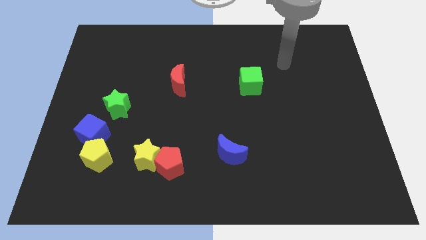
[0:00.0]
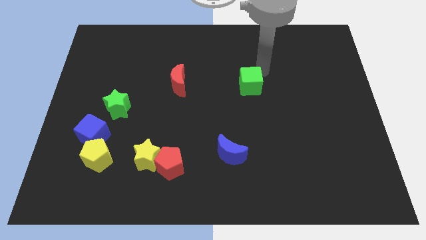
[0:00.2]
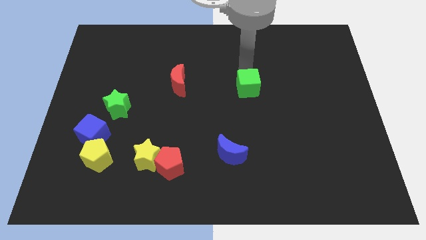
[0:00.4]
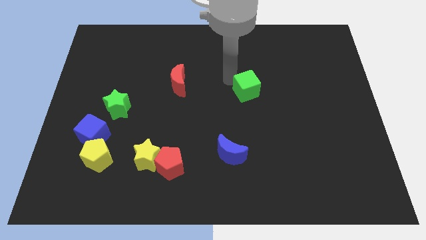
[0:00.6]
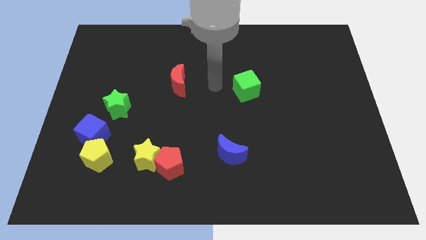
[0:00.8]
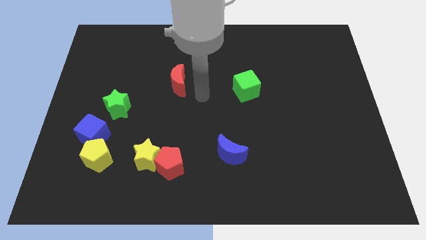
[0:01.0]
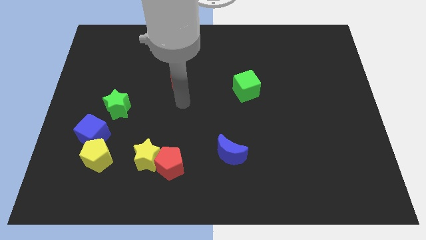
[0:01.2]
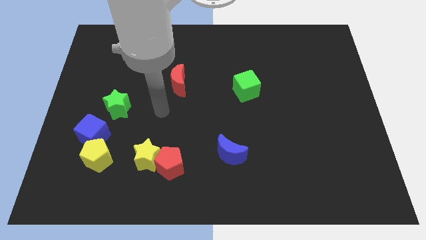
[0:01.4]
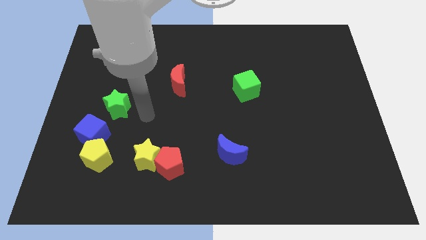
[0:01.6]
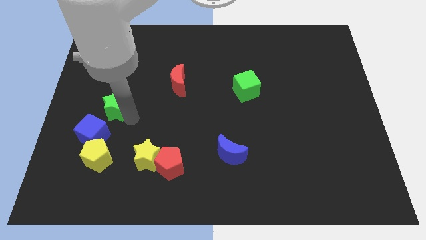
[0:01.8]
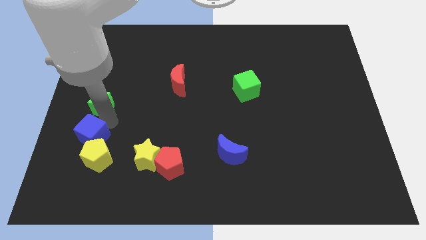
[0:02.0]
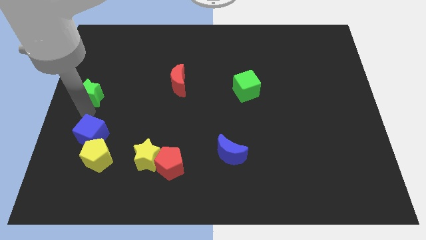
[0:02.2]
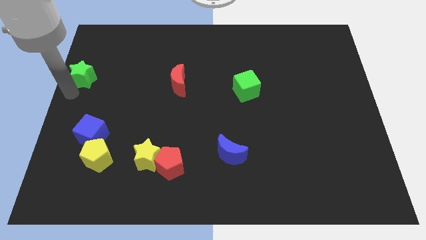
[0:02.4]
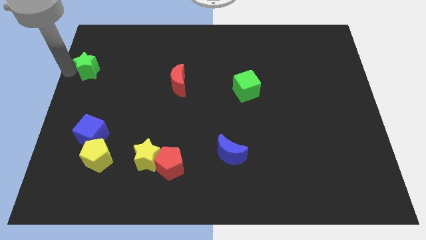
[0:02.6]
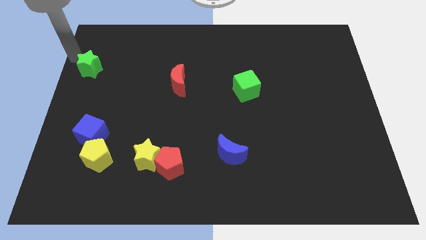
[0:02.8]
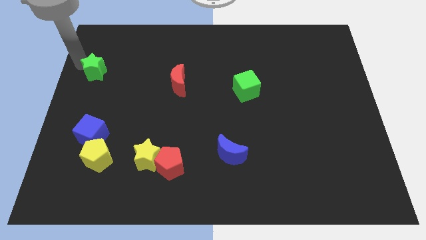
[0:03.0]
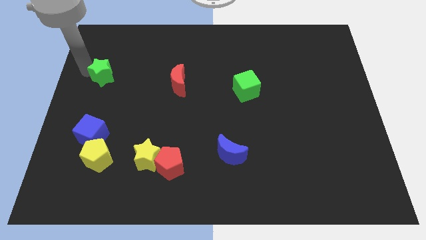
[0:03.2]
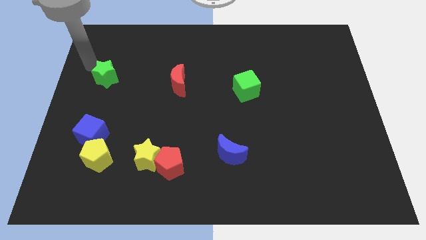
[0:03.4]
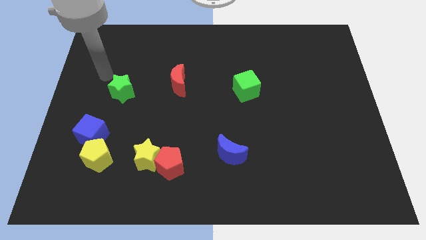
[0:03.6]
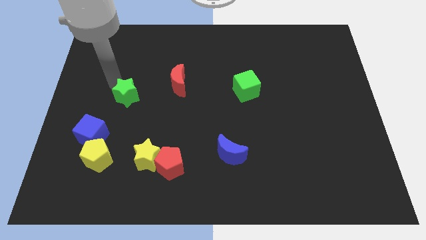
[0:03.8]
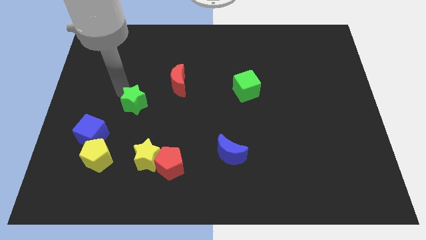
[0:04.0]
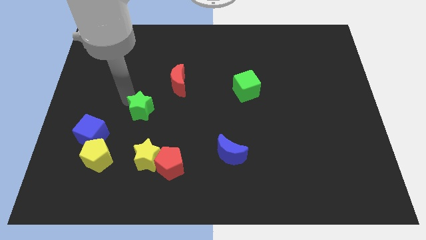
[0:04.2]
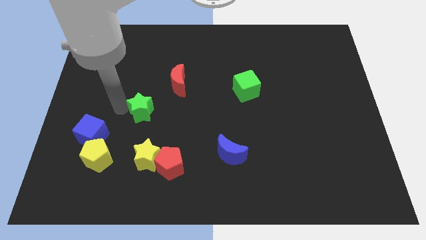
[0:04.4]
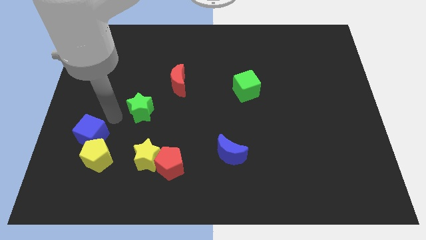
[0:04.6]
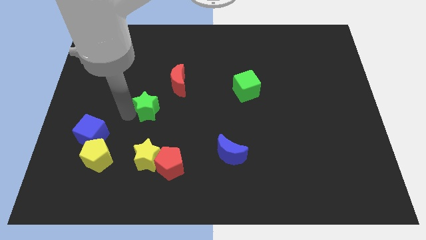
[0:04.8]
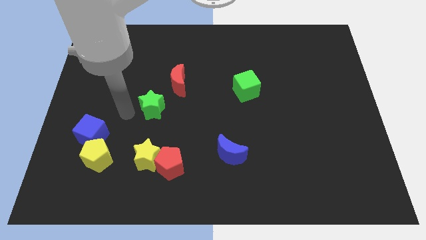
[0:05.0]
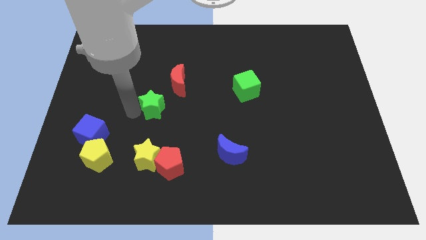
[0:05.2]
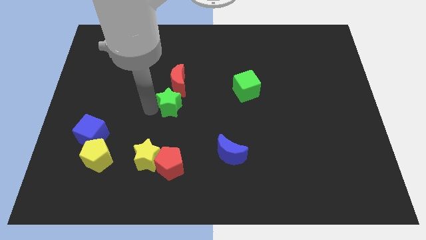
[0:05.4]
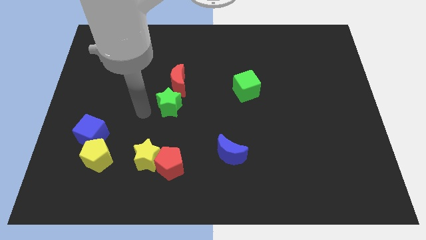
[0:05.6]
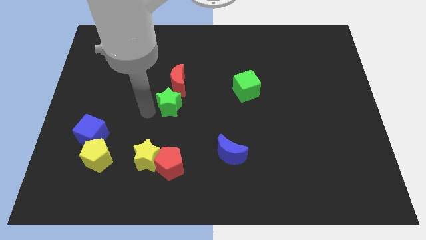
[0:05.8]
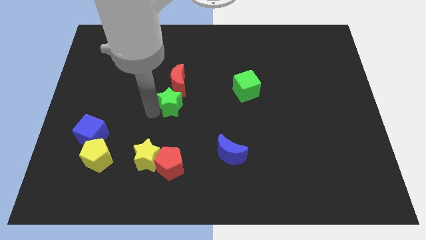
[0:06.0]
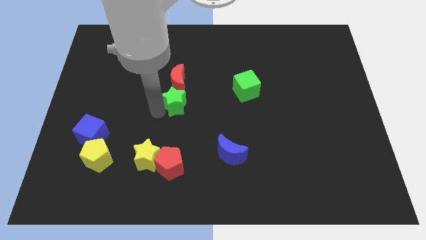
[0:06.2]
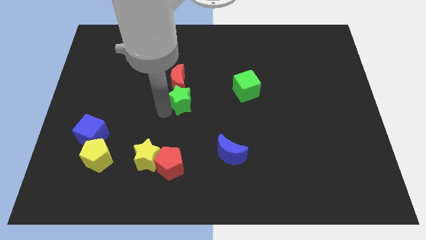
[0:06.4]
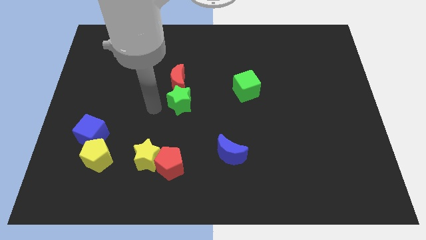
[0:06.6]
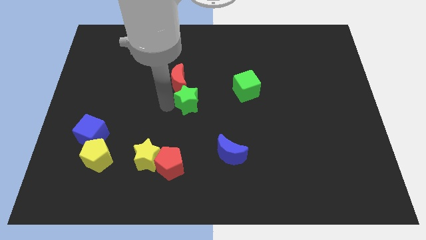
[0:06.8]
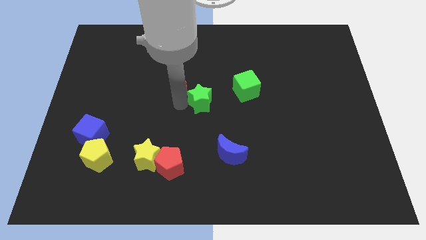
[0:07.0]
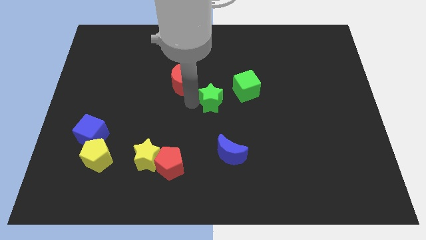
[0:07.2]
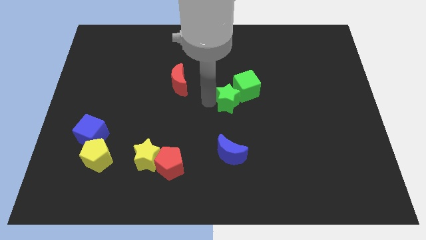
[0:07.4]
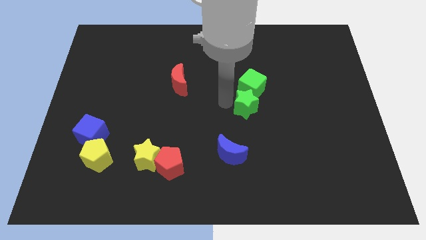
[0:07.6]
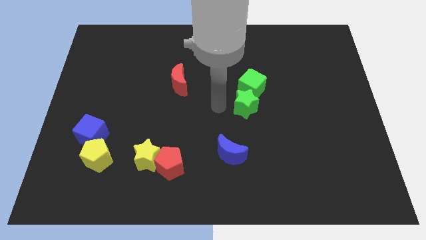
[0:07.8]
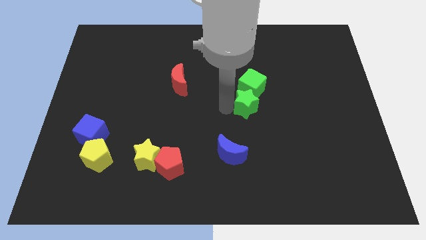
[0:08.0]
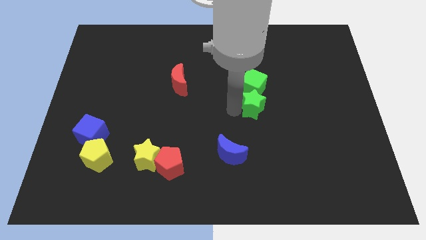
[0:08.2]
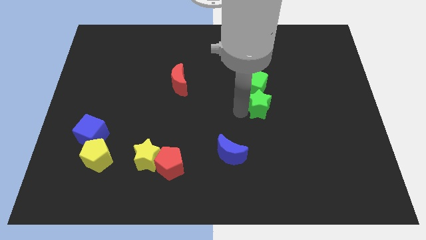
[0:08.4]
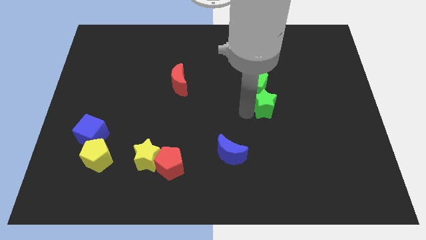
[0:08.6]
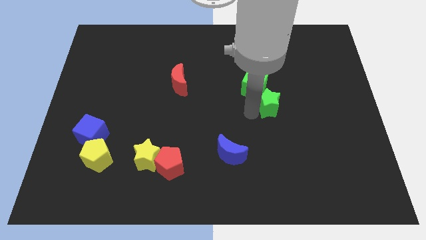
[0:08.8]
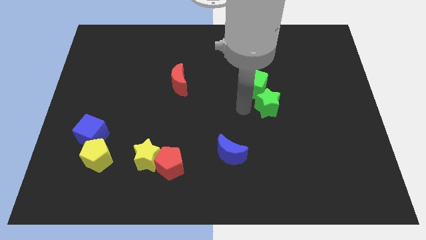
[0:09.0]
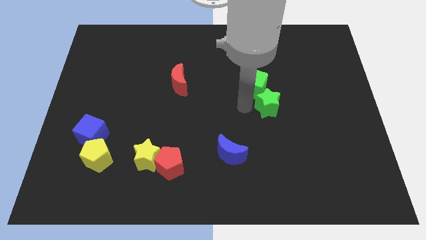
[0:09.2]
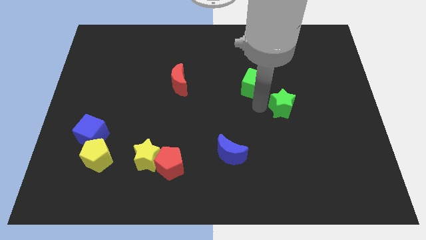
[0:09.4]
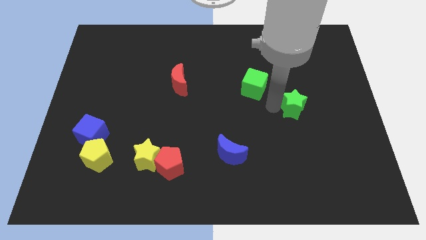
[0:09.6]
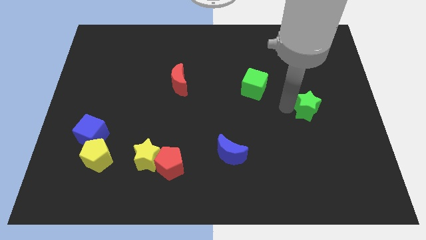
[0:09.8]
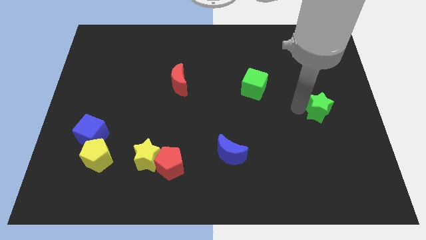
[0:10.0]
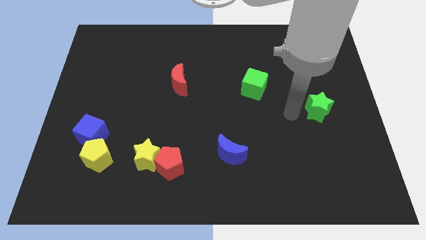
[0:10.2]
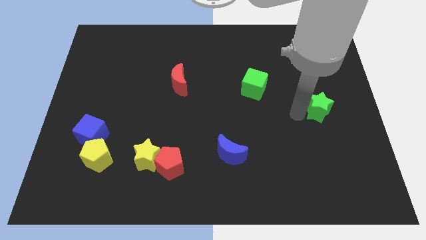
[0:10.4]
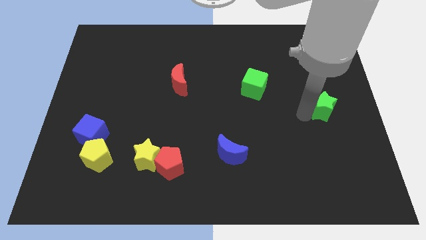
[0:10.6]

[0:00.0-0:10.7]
push the green star to the right side
